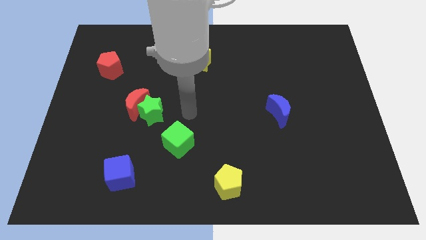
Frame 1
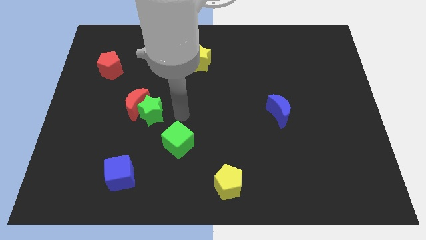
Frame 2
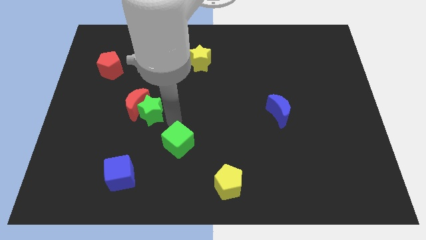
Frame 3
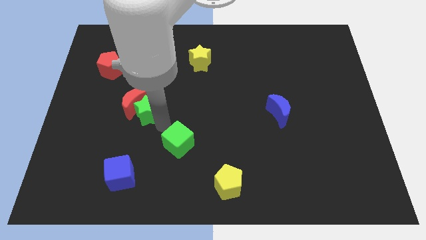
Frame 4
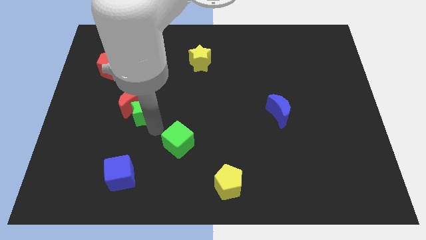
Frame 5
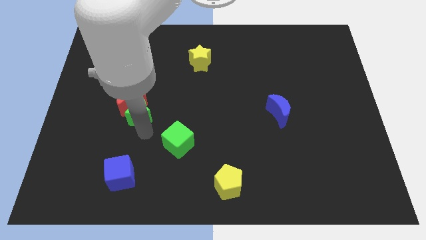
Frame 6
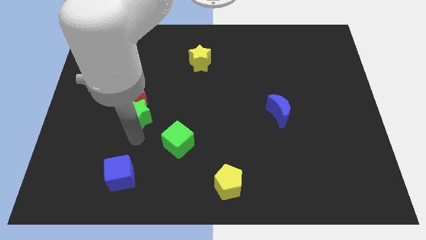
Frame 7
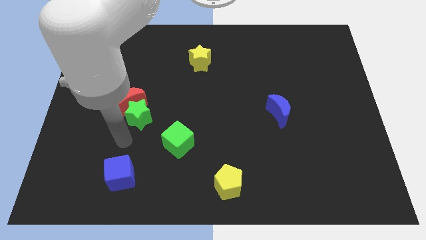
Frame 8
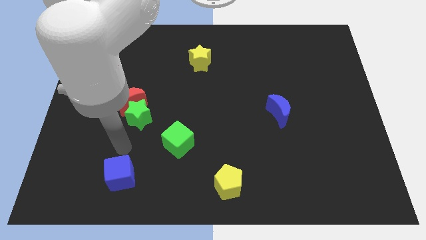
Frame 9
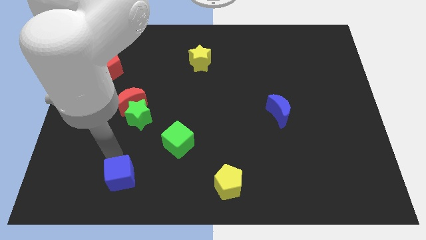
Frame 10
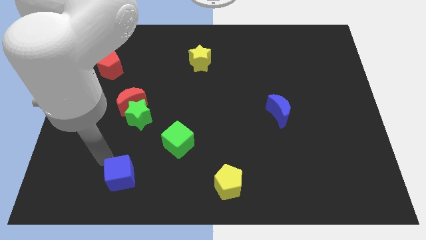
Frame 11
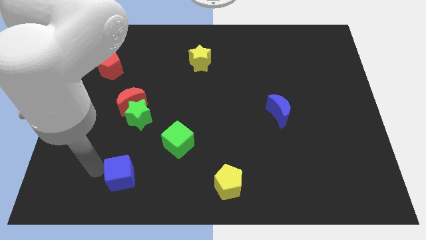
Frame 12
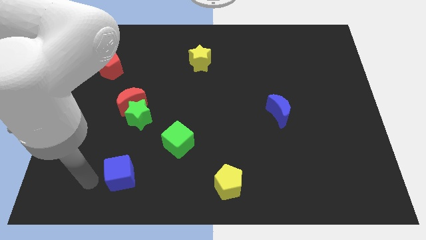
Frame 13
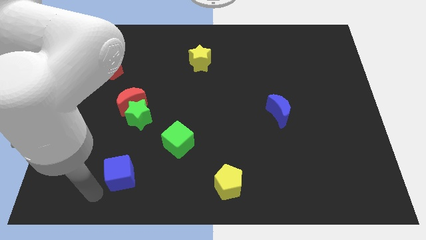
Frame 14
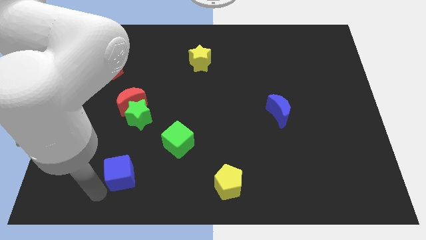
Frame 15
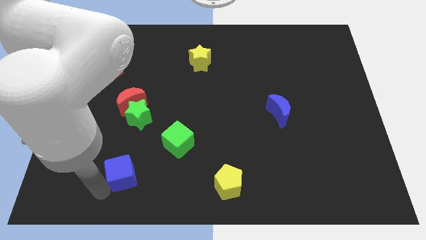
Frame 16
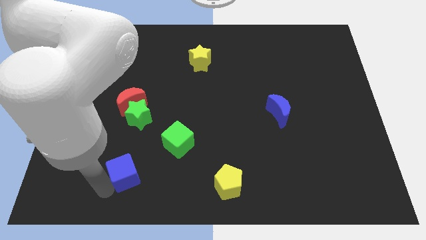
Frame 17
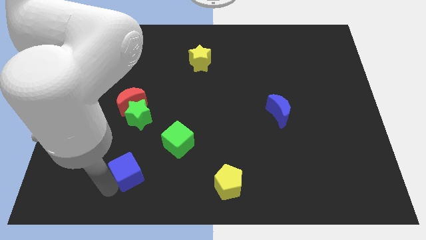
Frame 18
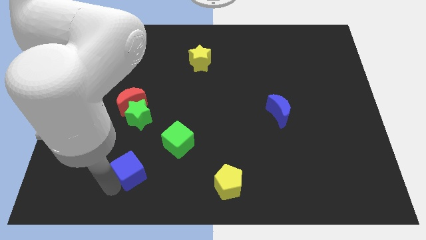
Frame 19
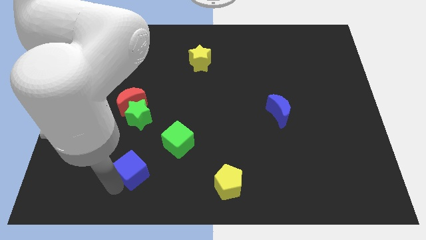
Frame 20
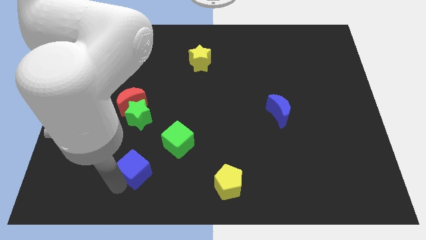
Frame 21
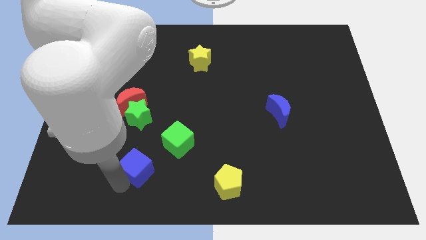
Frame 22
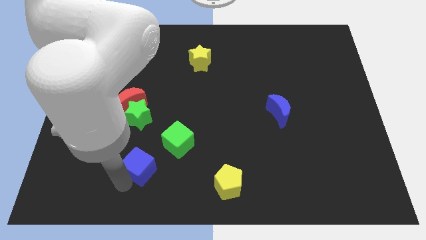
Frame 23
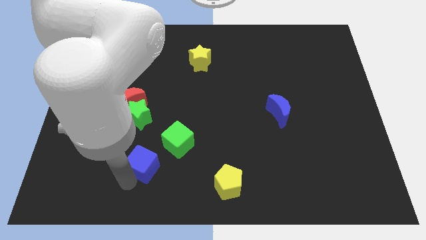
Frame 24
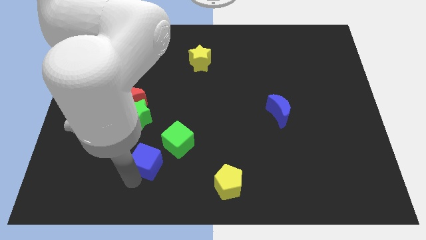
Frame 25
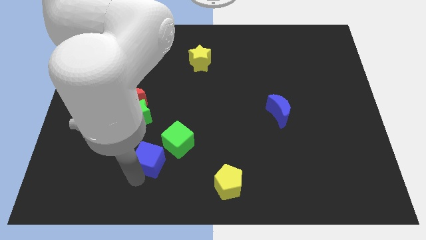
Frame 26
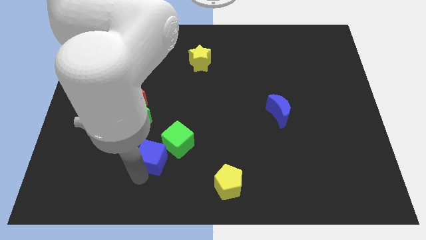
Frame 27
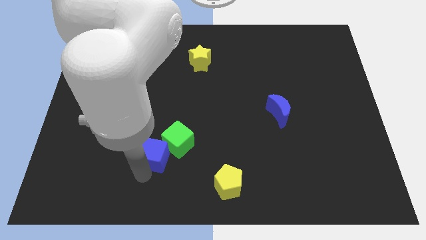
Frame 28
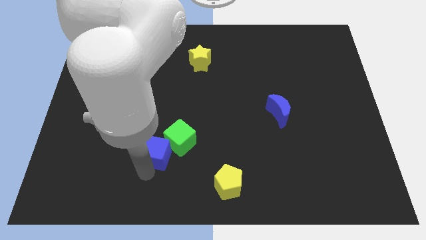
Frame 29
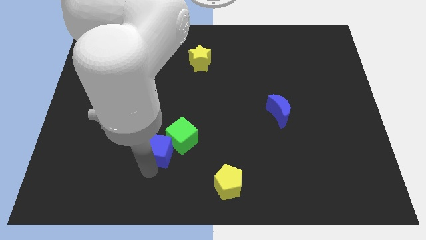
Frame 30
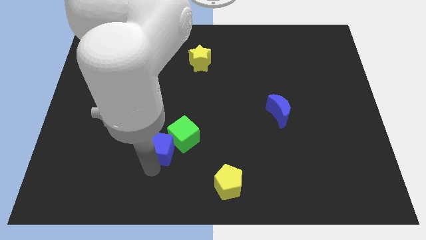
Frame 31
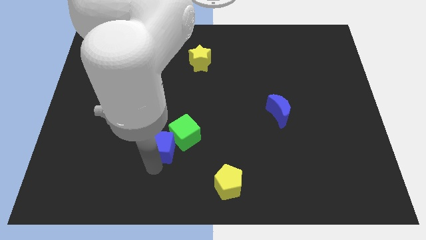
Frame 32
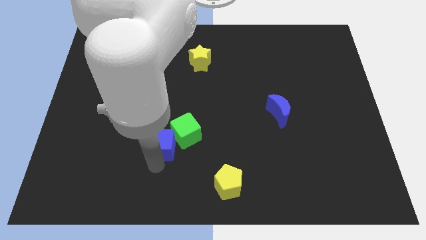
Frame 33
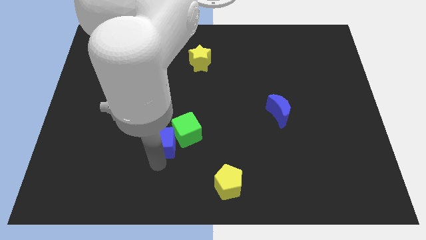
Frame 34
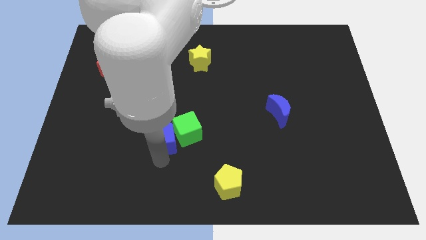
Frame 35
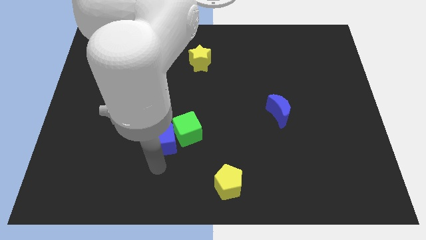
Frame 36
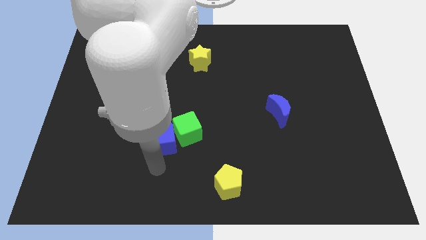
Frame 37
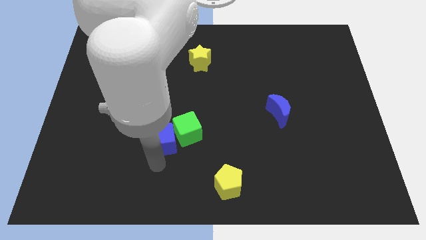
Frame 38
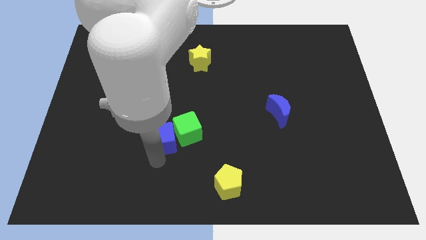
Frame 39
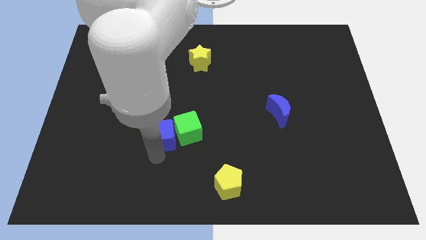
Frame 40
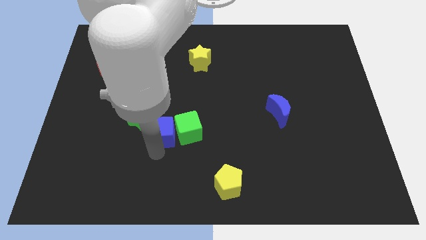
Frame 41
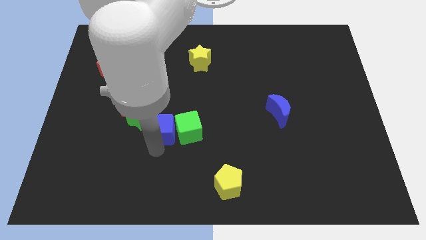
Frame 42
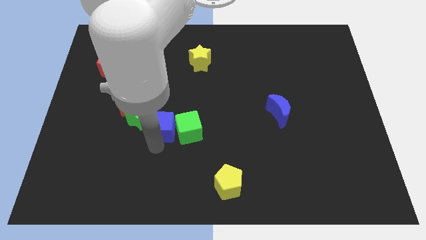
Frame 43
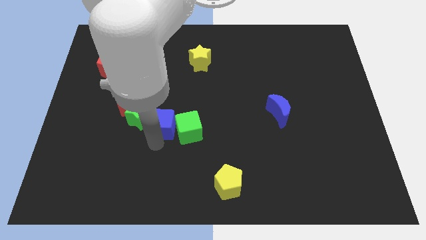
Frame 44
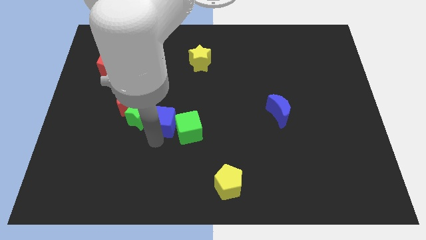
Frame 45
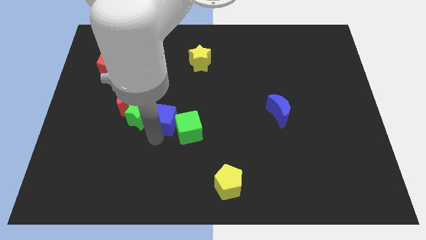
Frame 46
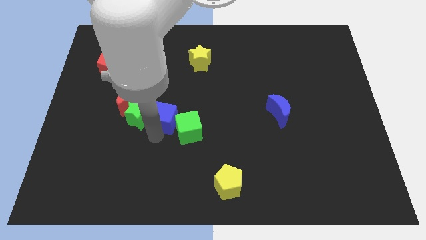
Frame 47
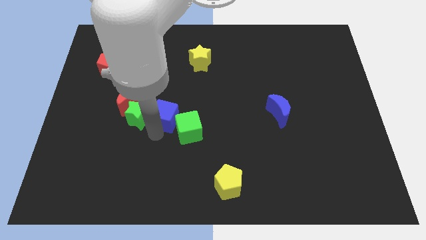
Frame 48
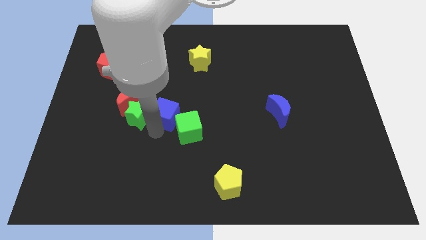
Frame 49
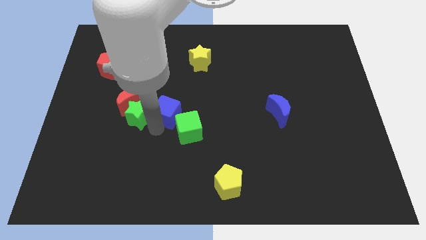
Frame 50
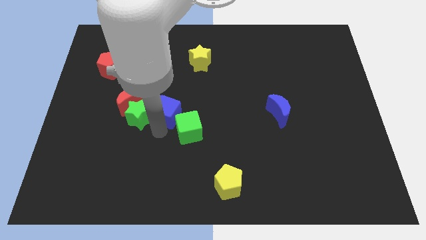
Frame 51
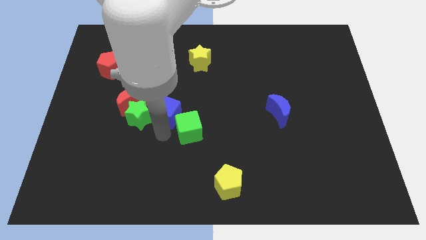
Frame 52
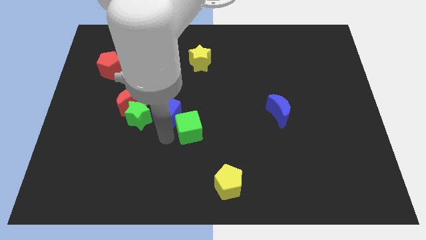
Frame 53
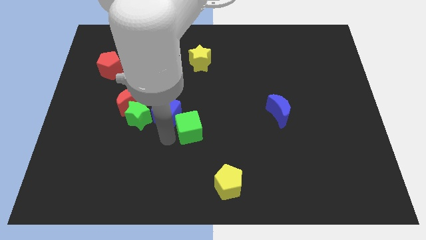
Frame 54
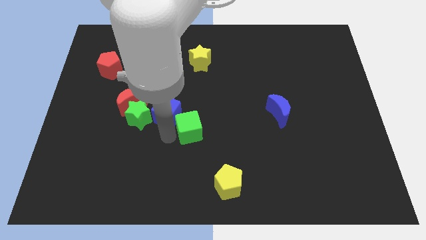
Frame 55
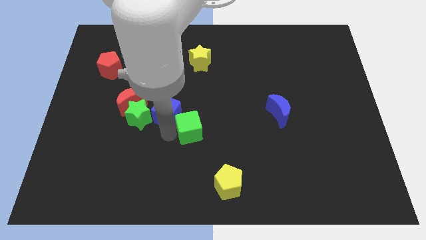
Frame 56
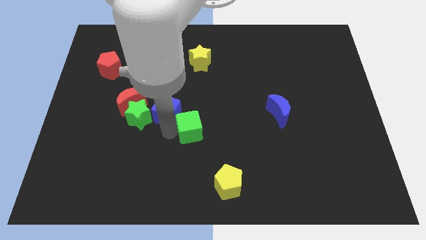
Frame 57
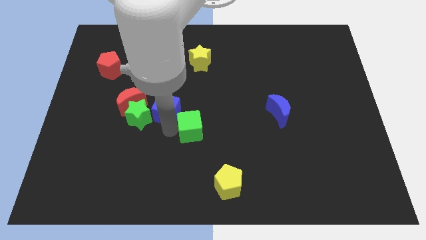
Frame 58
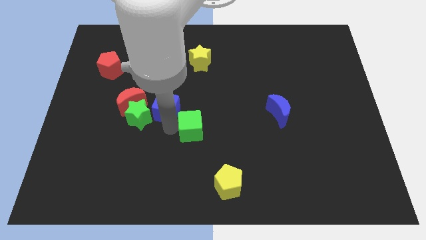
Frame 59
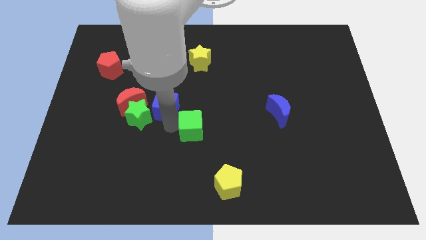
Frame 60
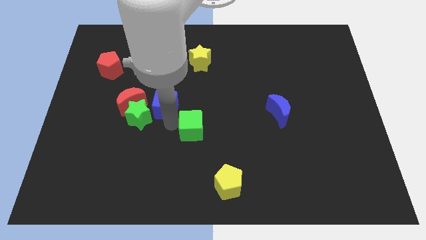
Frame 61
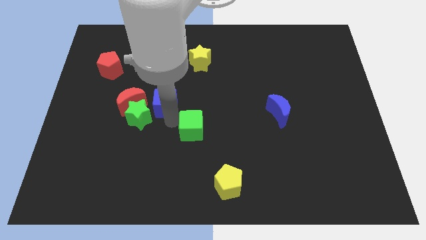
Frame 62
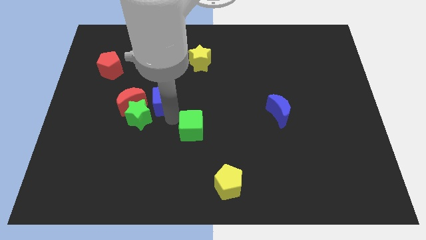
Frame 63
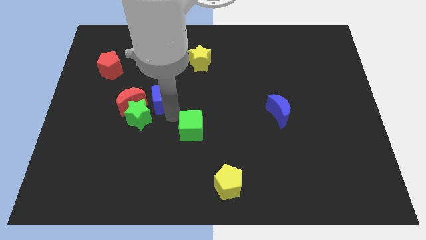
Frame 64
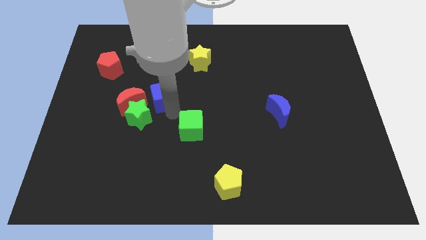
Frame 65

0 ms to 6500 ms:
move the blue cube diagonally up and to the right of the red moon

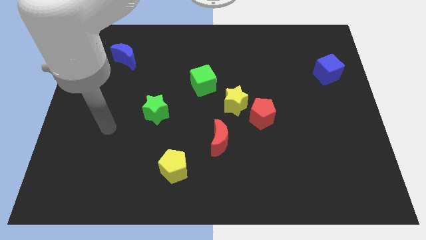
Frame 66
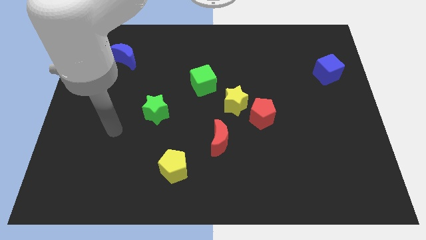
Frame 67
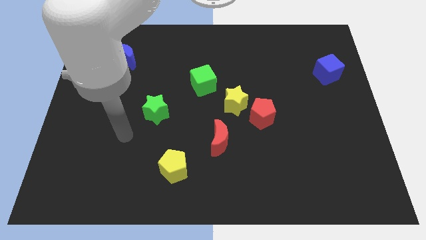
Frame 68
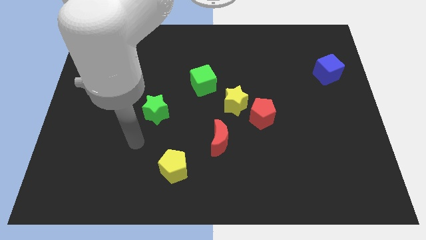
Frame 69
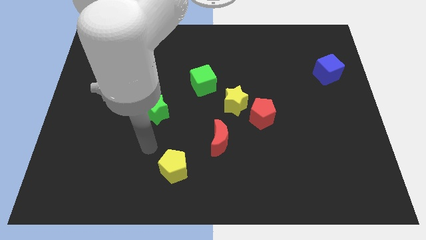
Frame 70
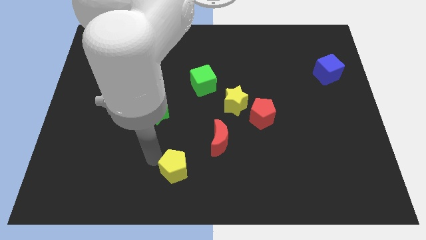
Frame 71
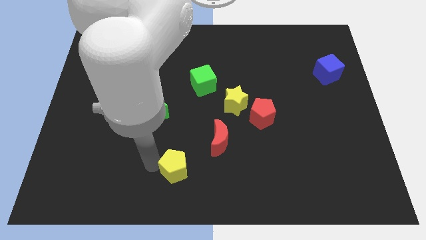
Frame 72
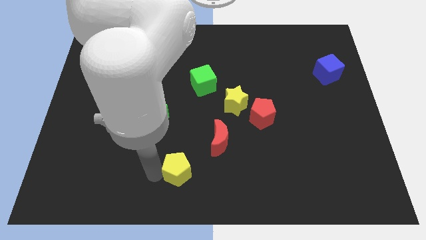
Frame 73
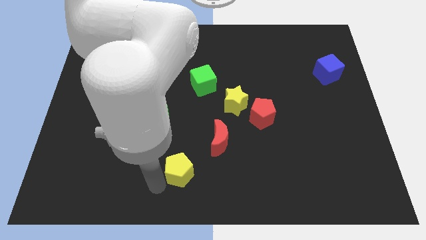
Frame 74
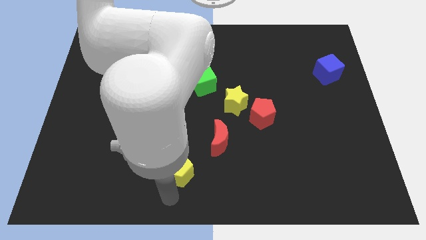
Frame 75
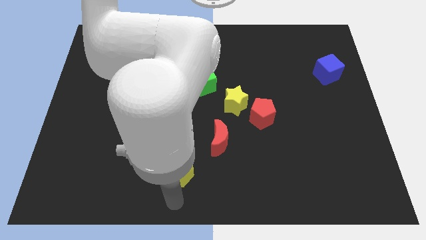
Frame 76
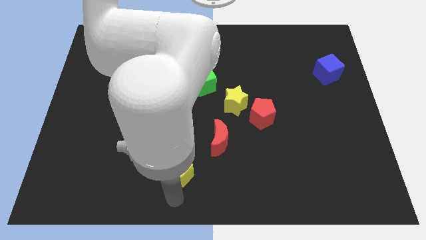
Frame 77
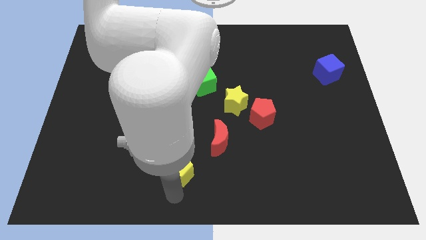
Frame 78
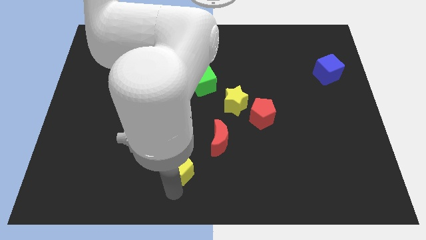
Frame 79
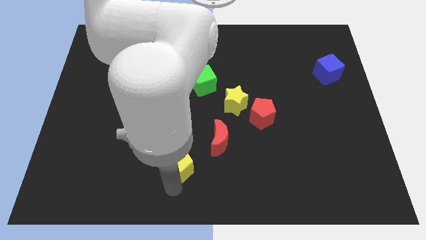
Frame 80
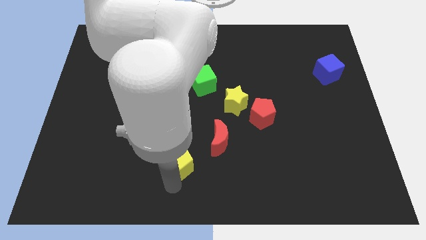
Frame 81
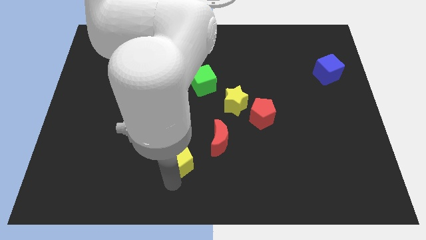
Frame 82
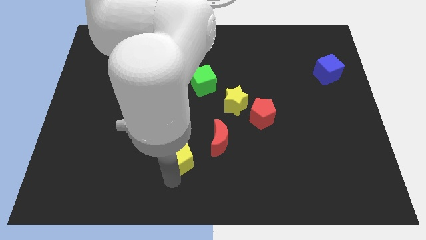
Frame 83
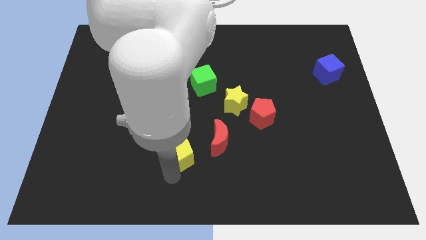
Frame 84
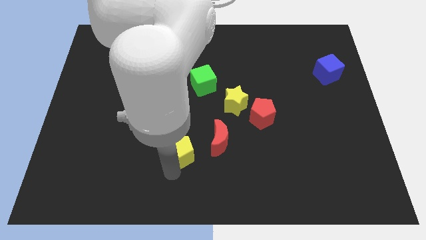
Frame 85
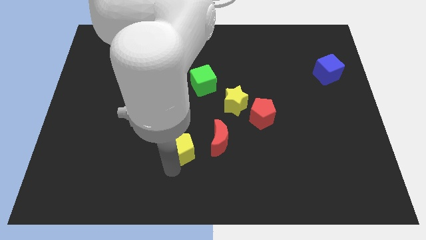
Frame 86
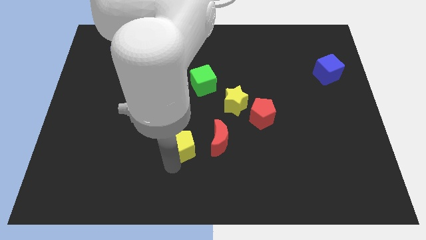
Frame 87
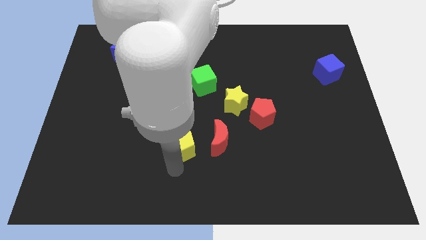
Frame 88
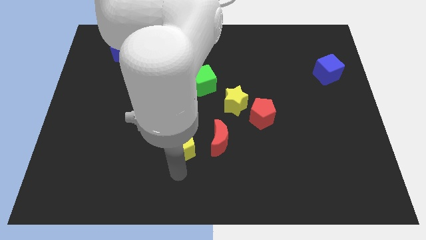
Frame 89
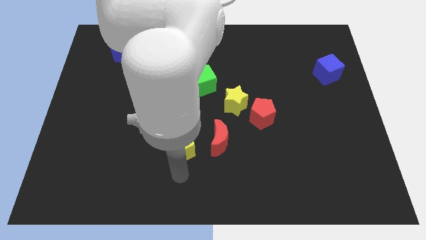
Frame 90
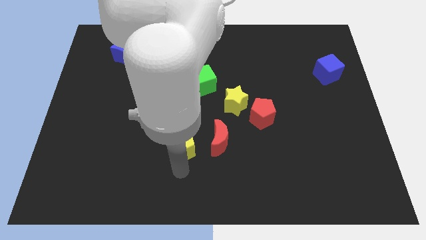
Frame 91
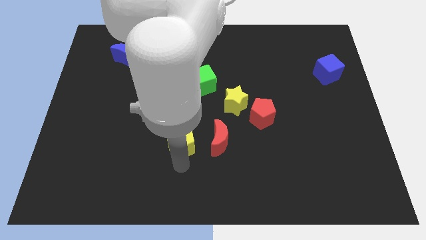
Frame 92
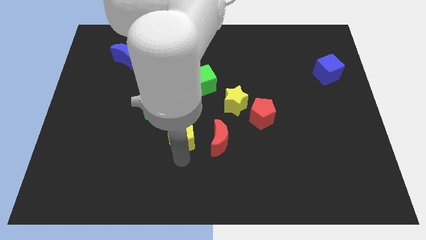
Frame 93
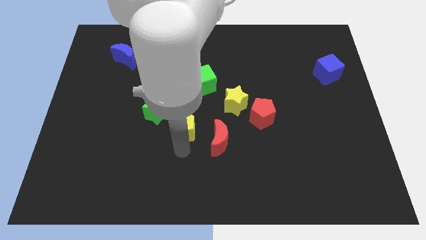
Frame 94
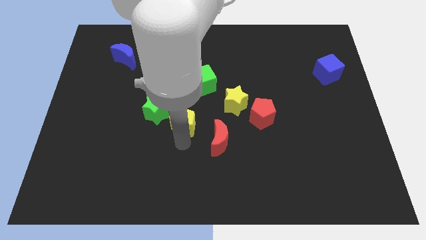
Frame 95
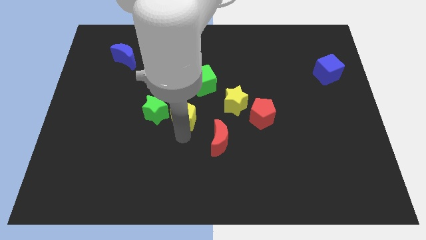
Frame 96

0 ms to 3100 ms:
slide the yellow pentagon to the left side of the yellow star
